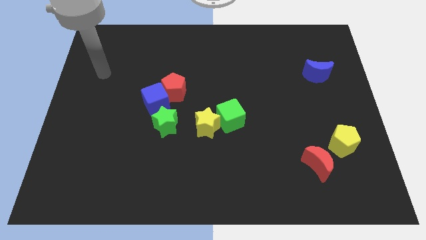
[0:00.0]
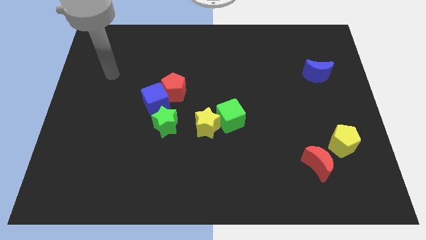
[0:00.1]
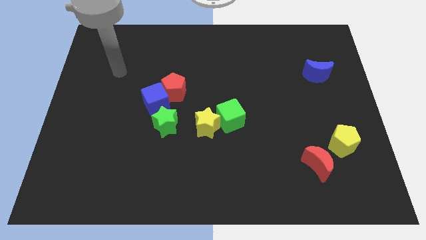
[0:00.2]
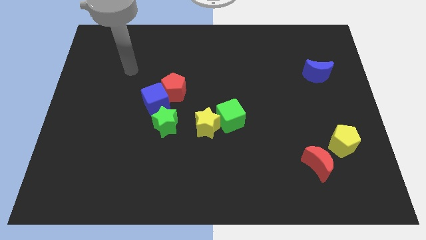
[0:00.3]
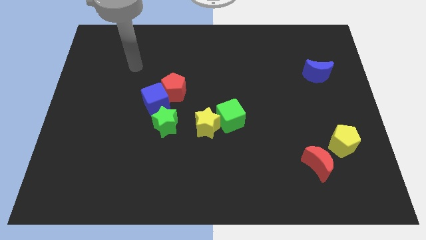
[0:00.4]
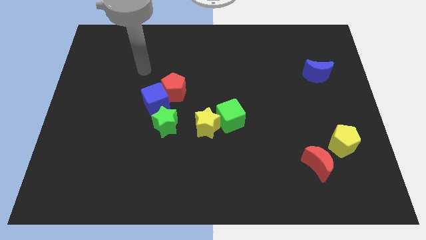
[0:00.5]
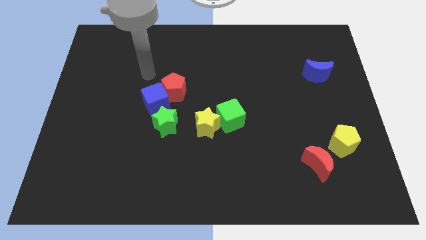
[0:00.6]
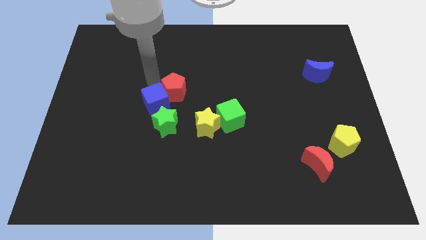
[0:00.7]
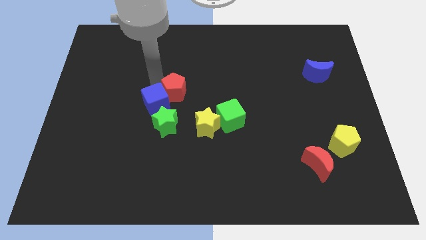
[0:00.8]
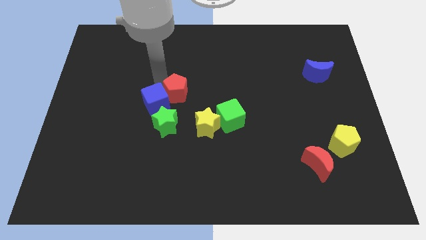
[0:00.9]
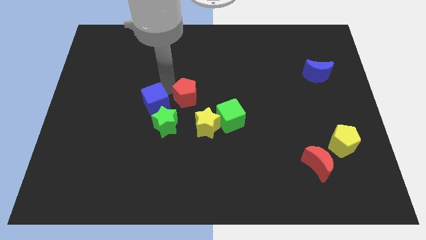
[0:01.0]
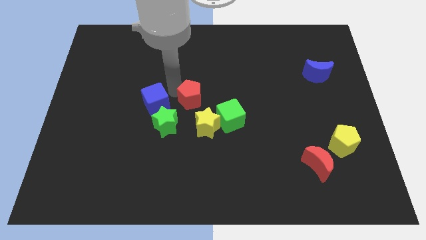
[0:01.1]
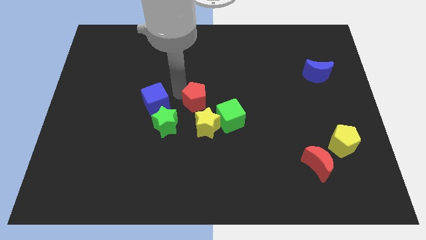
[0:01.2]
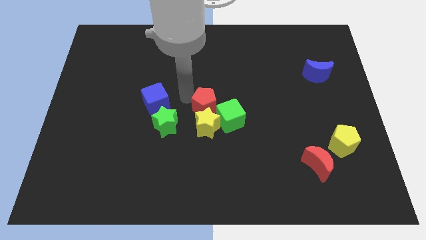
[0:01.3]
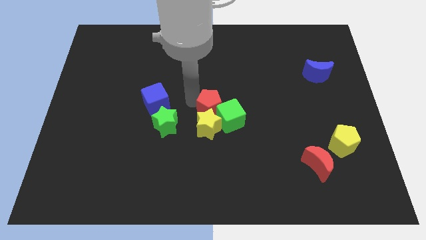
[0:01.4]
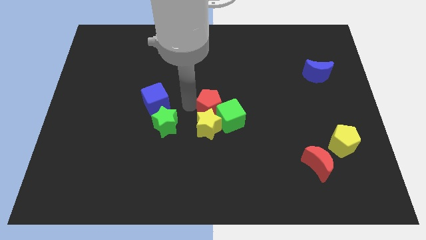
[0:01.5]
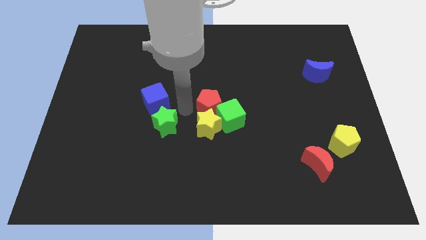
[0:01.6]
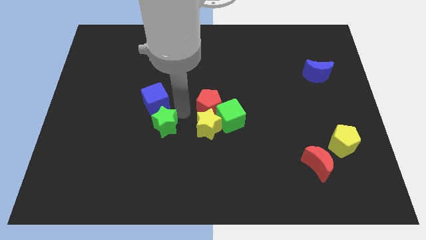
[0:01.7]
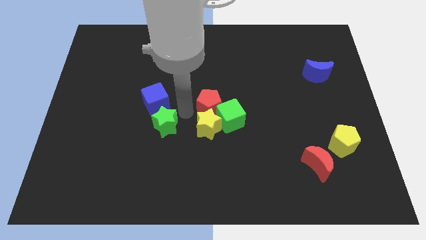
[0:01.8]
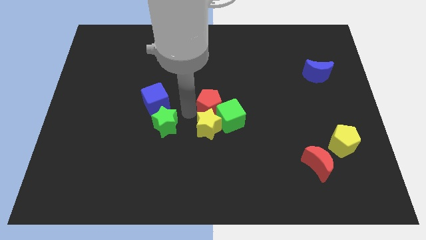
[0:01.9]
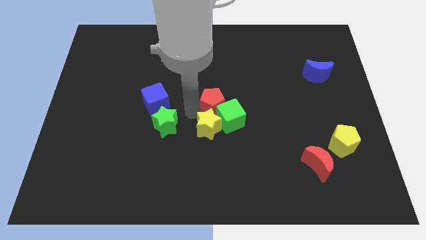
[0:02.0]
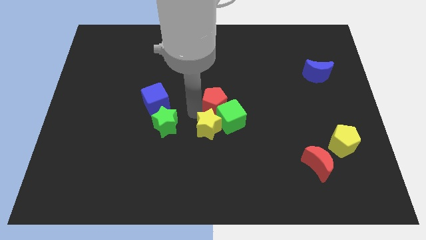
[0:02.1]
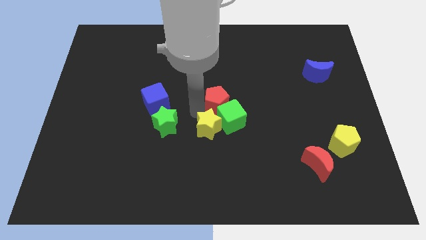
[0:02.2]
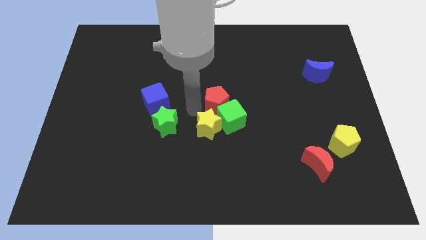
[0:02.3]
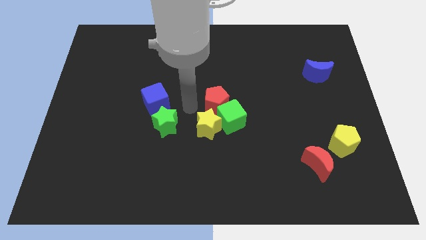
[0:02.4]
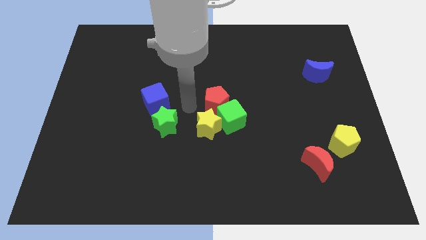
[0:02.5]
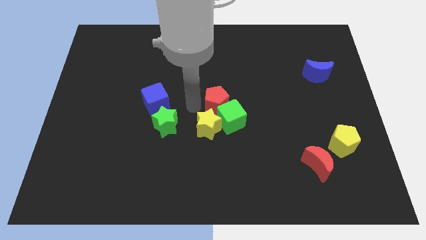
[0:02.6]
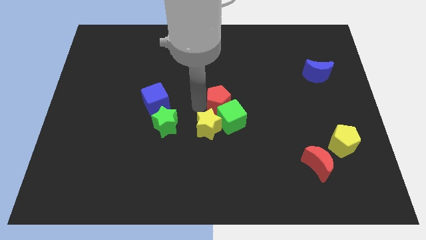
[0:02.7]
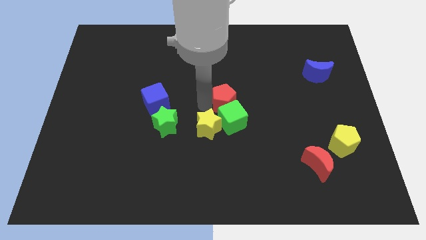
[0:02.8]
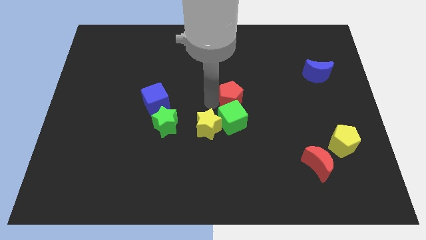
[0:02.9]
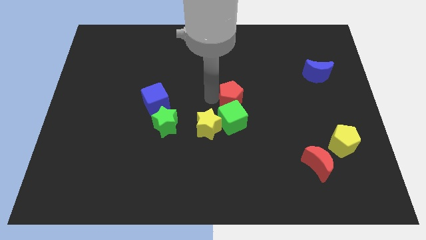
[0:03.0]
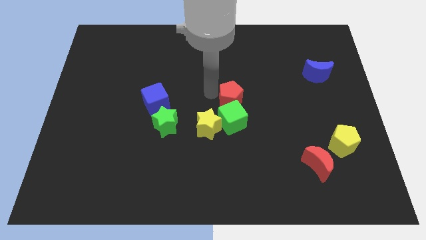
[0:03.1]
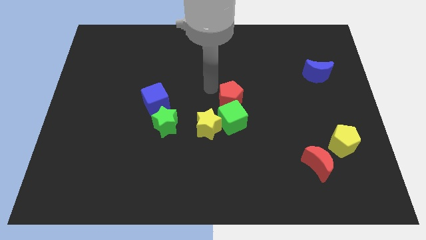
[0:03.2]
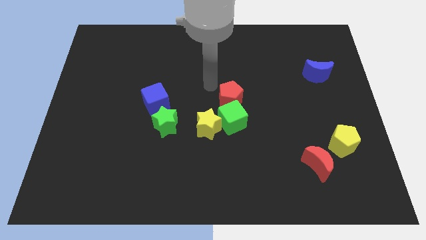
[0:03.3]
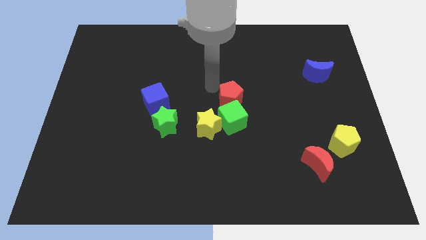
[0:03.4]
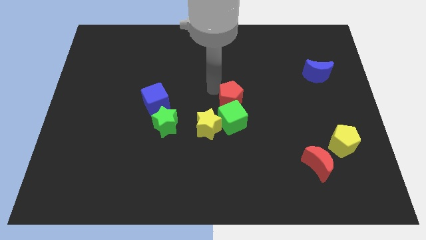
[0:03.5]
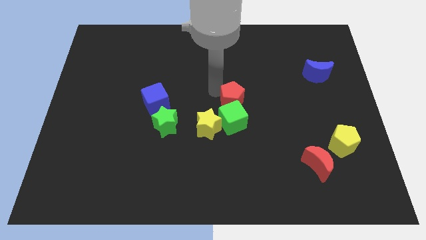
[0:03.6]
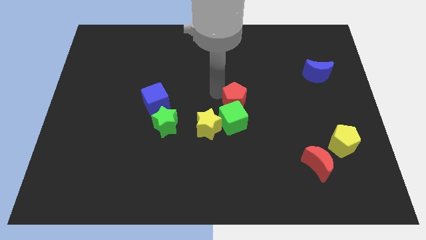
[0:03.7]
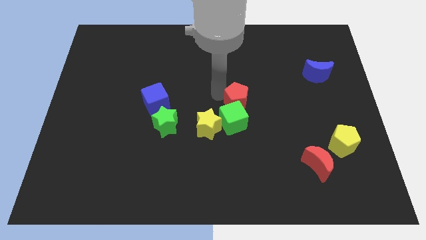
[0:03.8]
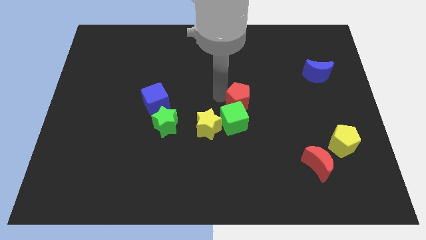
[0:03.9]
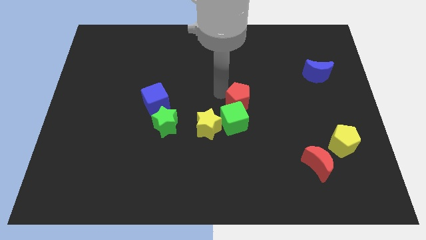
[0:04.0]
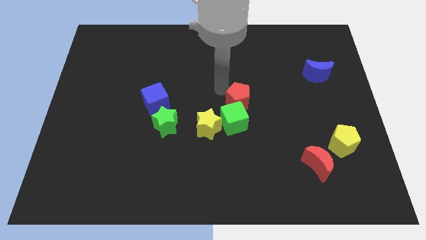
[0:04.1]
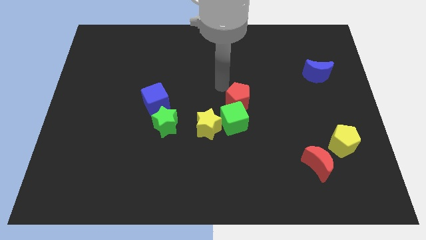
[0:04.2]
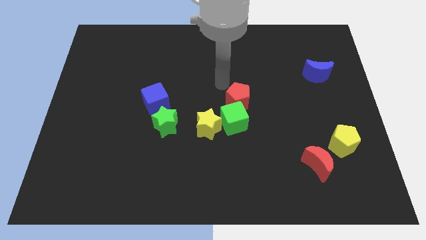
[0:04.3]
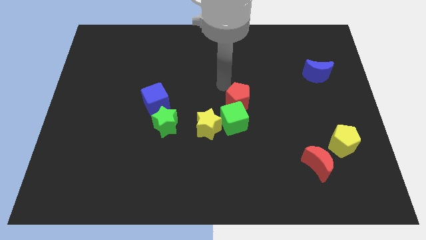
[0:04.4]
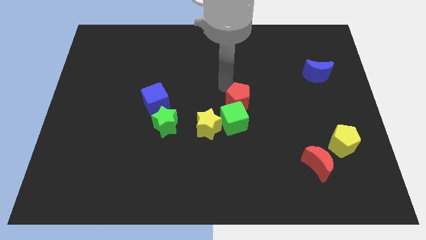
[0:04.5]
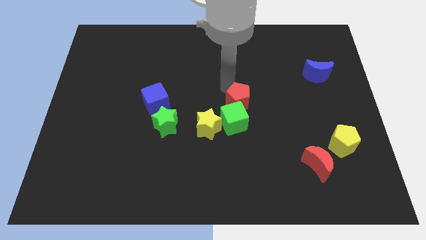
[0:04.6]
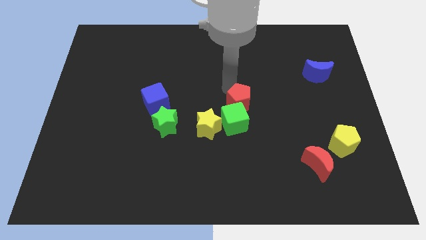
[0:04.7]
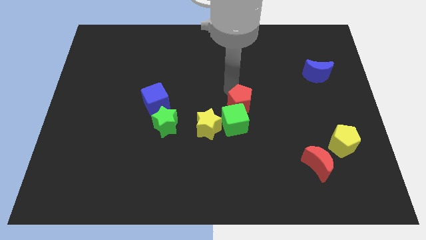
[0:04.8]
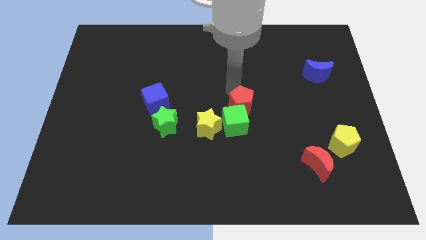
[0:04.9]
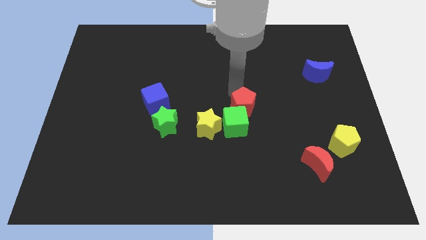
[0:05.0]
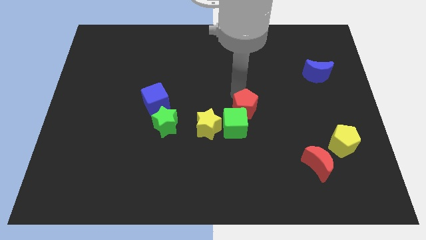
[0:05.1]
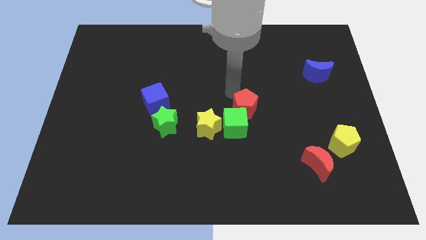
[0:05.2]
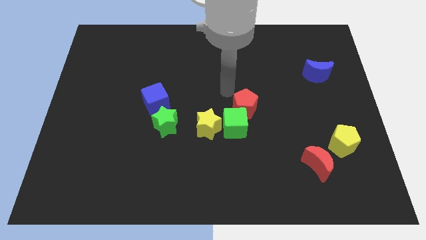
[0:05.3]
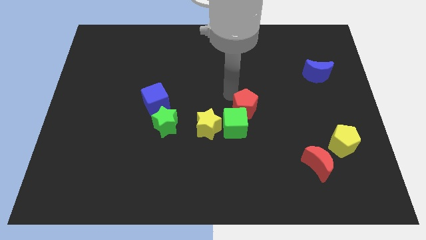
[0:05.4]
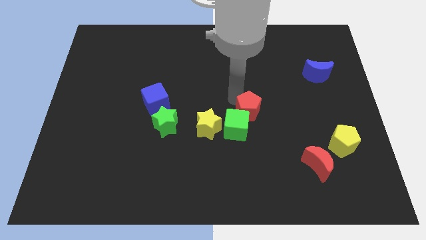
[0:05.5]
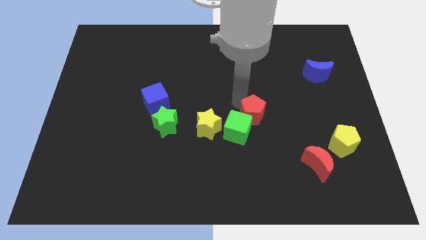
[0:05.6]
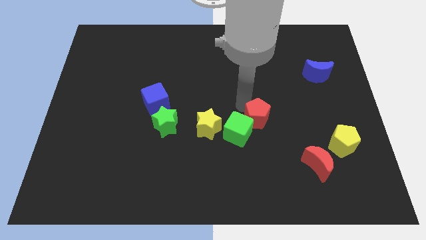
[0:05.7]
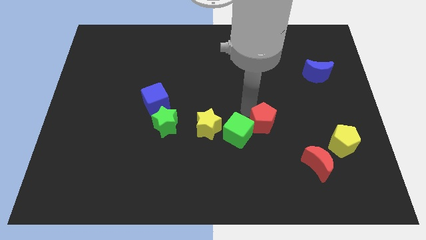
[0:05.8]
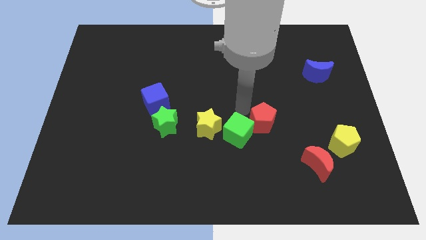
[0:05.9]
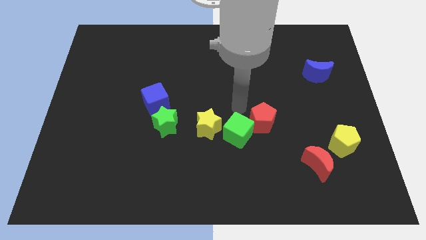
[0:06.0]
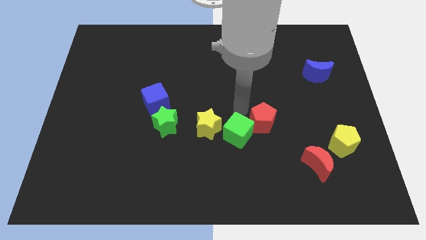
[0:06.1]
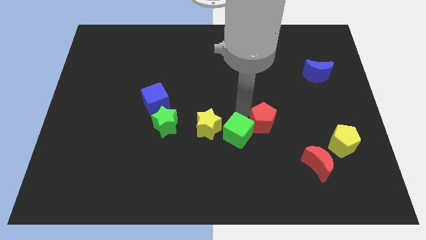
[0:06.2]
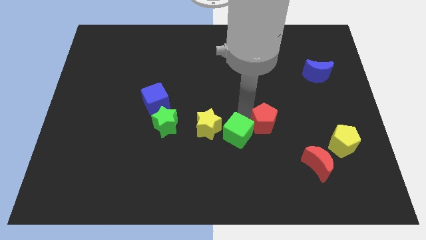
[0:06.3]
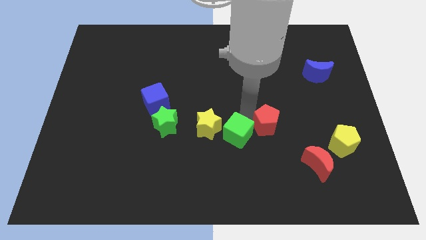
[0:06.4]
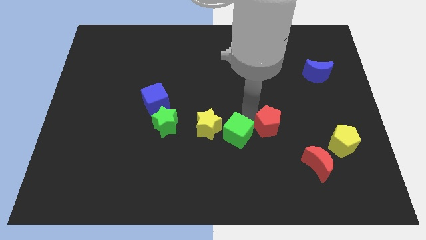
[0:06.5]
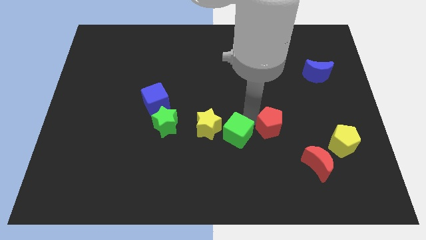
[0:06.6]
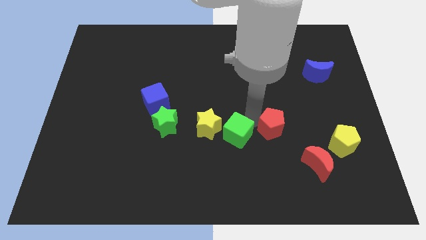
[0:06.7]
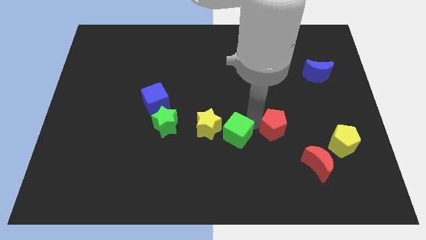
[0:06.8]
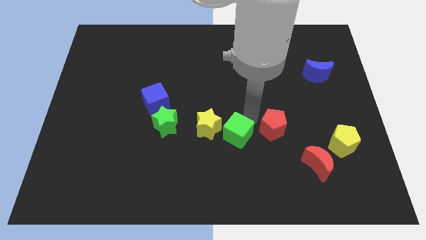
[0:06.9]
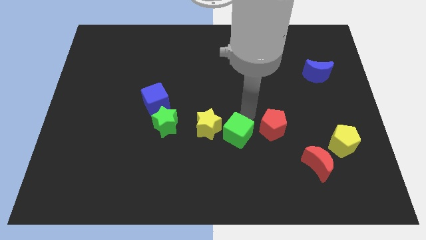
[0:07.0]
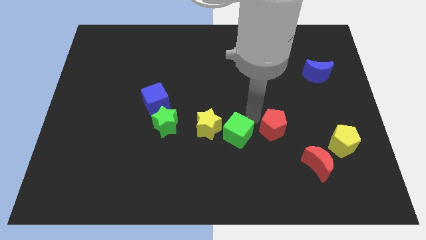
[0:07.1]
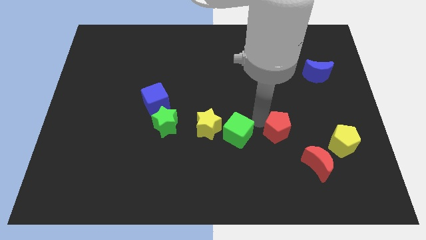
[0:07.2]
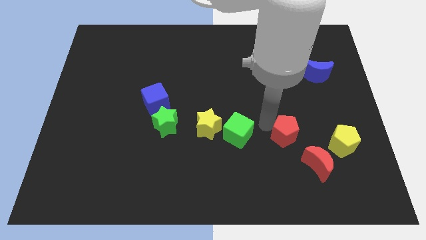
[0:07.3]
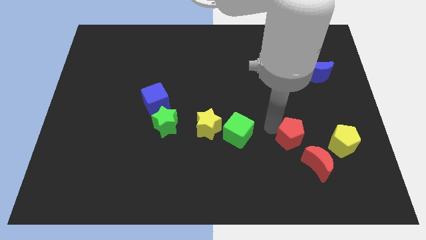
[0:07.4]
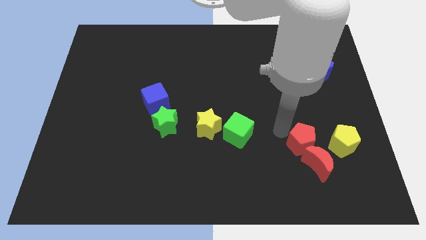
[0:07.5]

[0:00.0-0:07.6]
put the red pentagon close to the red moon

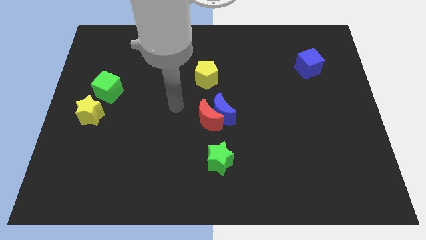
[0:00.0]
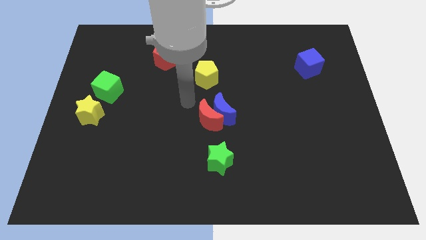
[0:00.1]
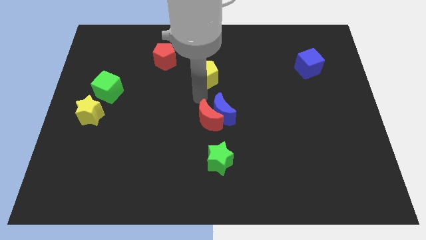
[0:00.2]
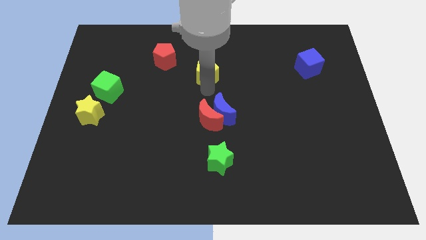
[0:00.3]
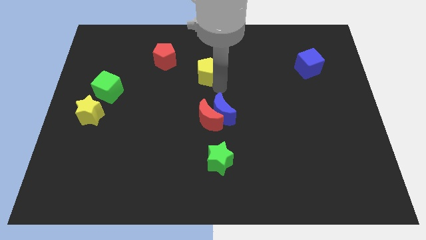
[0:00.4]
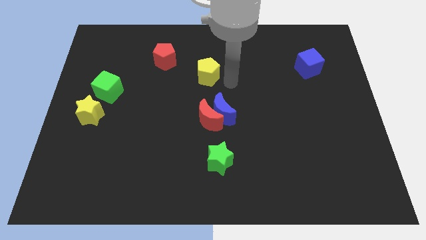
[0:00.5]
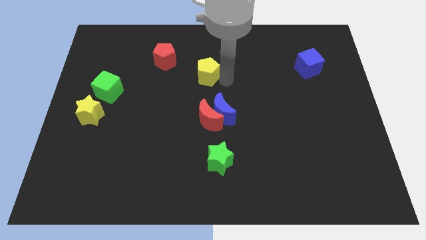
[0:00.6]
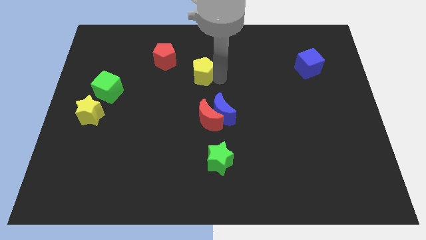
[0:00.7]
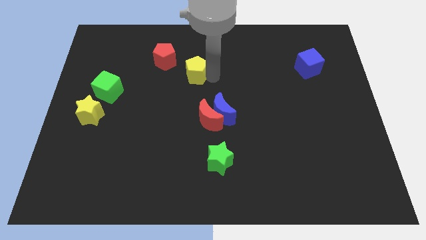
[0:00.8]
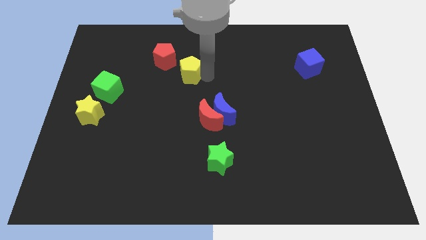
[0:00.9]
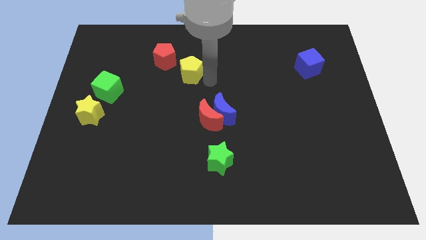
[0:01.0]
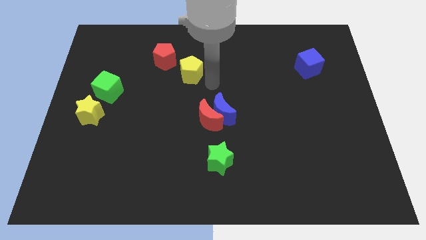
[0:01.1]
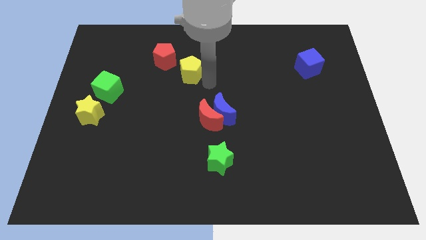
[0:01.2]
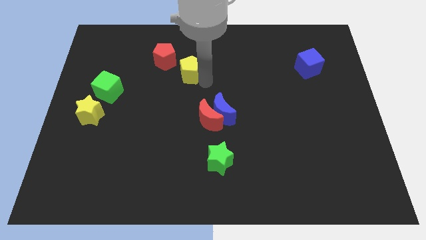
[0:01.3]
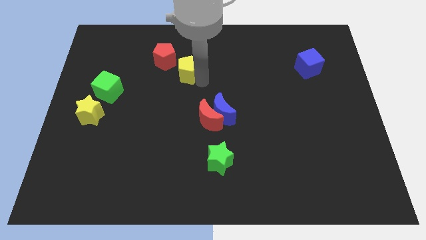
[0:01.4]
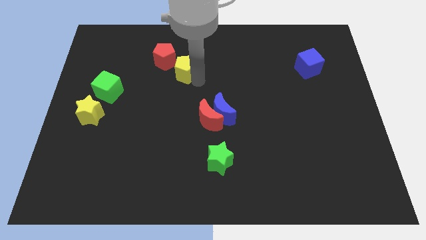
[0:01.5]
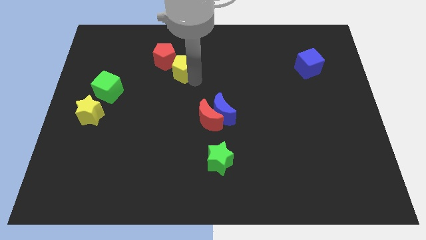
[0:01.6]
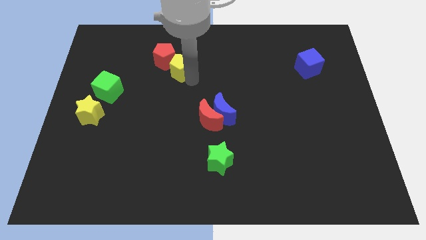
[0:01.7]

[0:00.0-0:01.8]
slide the yellow pentagon to the red pentagon
